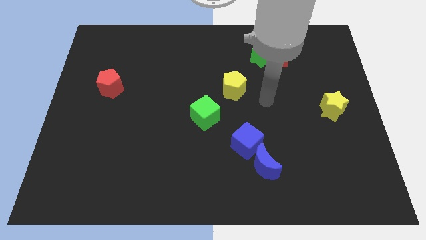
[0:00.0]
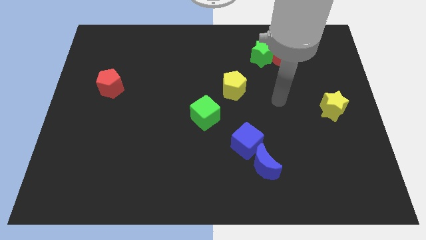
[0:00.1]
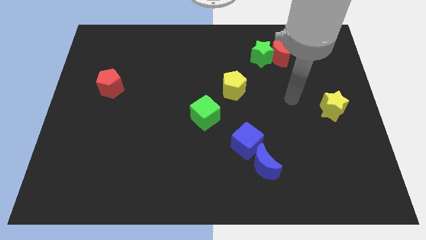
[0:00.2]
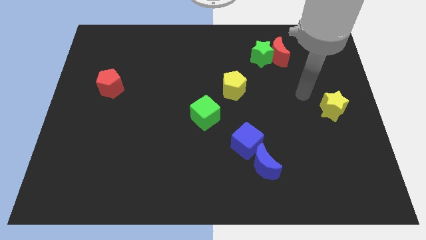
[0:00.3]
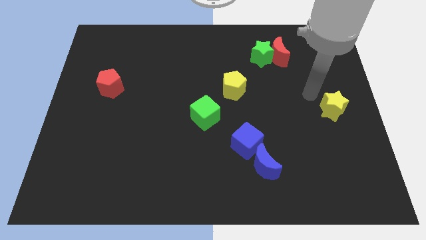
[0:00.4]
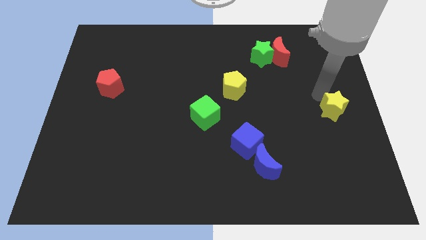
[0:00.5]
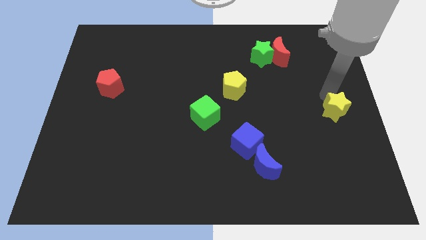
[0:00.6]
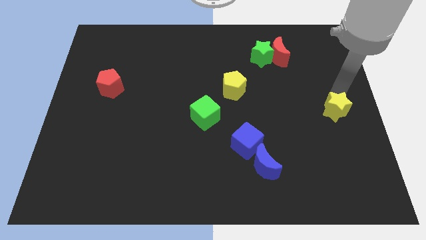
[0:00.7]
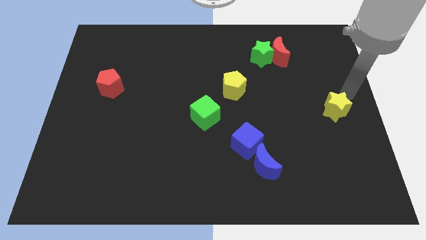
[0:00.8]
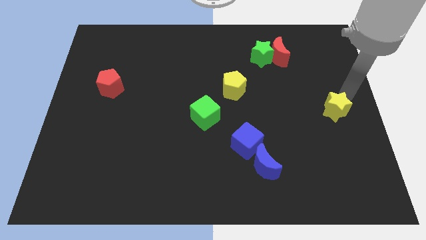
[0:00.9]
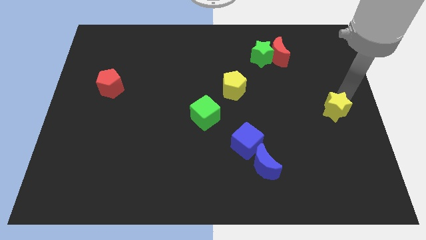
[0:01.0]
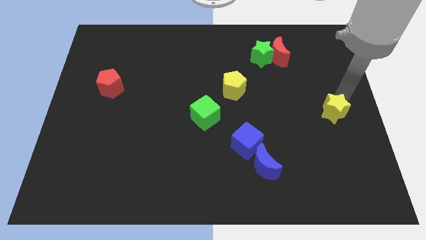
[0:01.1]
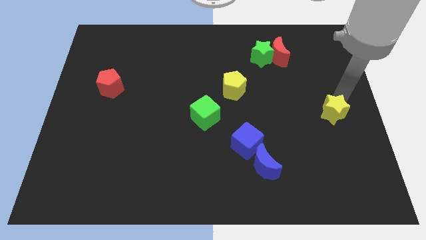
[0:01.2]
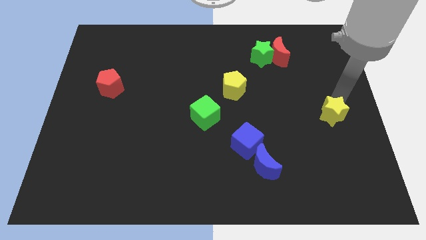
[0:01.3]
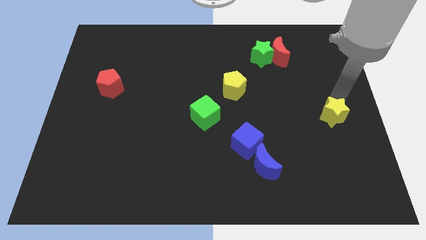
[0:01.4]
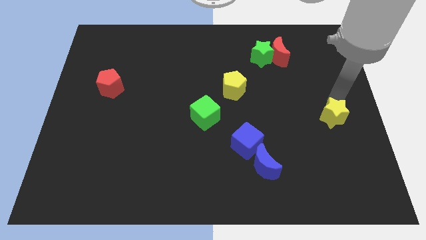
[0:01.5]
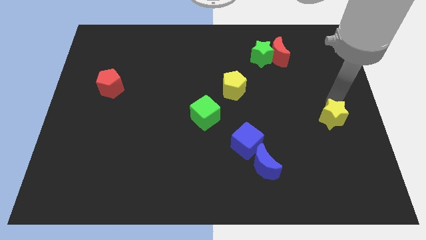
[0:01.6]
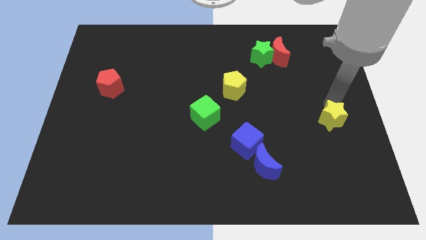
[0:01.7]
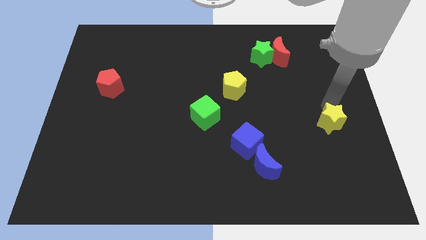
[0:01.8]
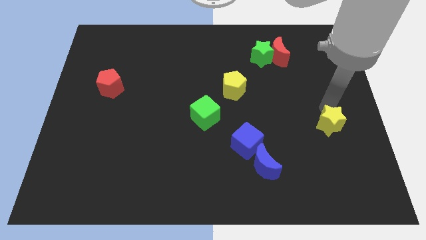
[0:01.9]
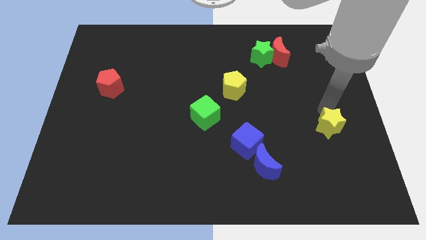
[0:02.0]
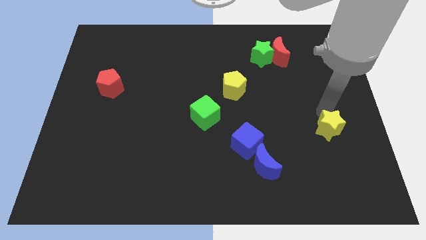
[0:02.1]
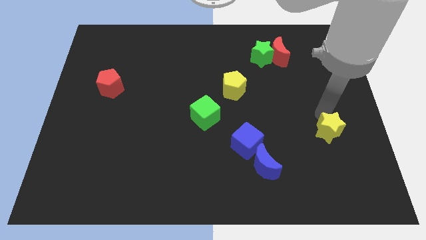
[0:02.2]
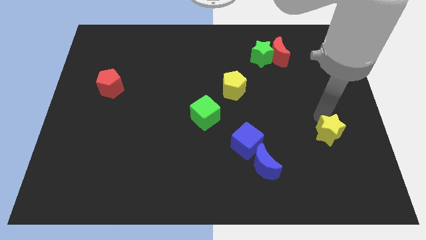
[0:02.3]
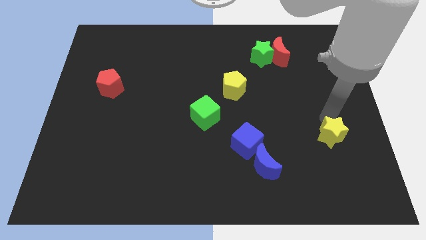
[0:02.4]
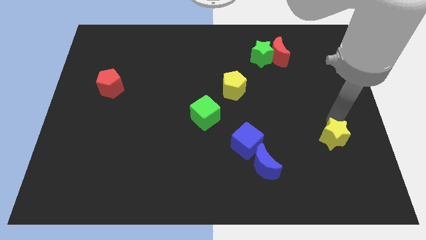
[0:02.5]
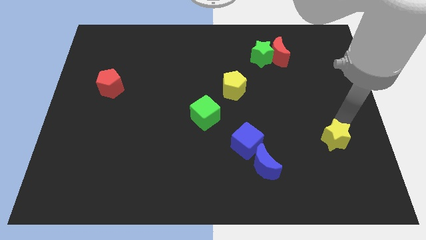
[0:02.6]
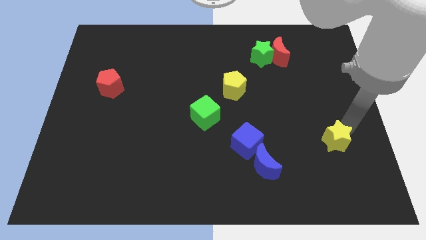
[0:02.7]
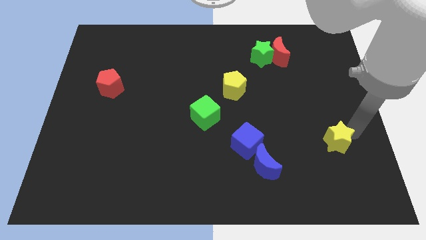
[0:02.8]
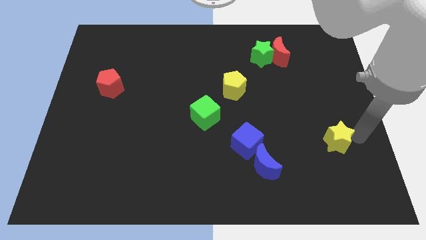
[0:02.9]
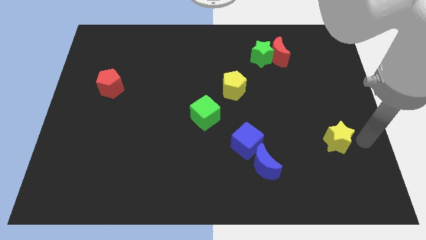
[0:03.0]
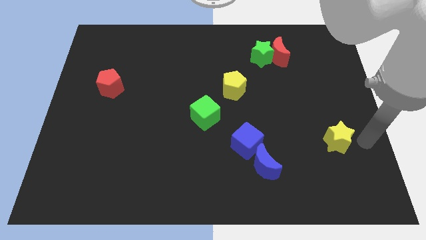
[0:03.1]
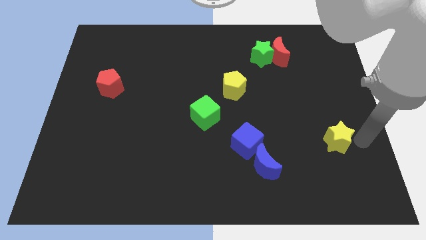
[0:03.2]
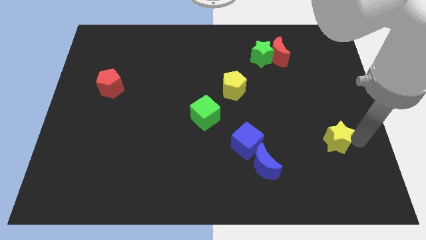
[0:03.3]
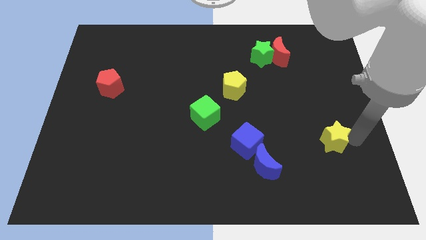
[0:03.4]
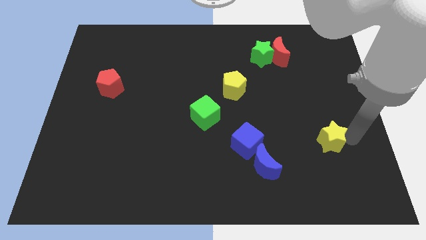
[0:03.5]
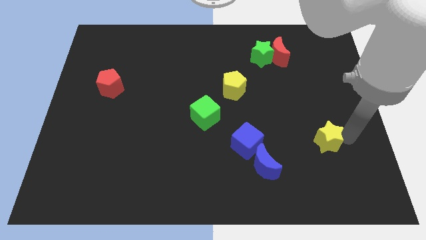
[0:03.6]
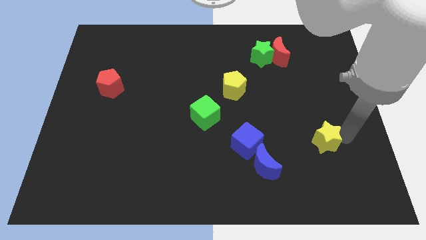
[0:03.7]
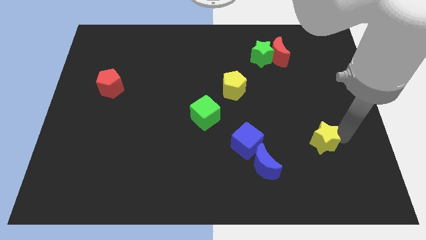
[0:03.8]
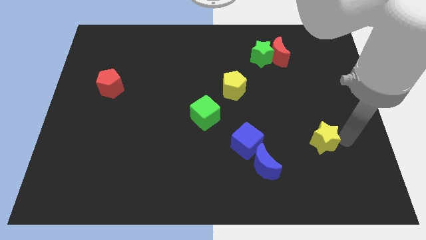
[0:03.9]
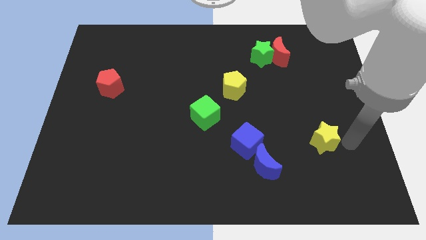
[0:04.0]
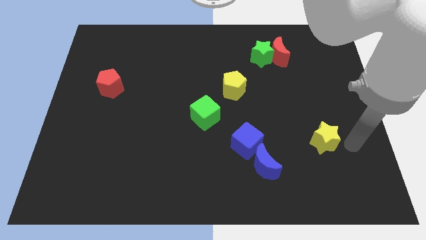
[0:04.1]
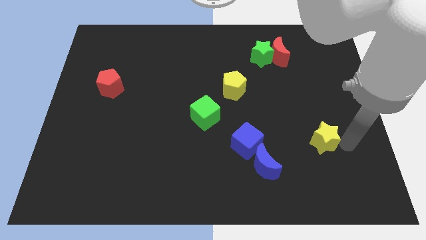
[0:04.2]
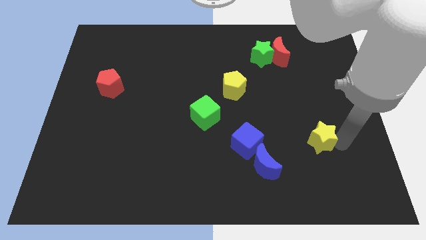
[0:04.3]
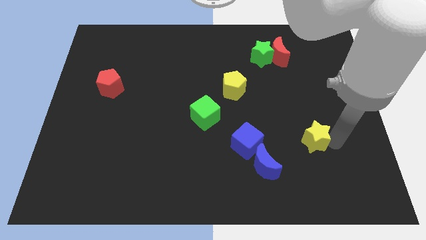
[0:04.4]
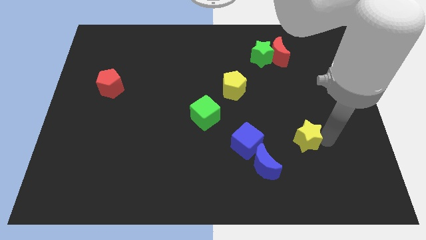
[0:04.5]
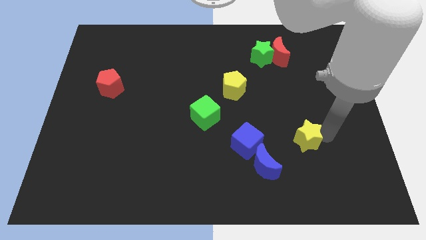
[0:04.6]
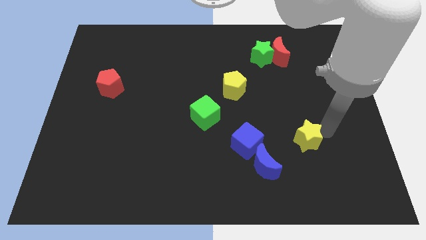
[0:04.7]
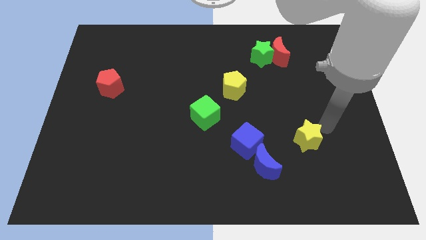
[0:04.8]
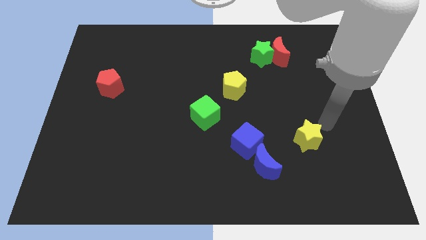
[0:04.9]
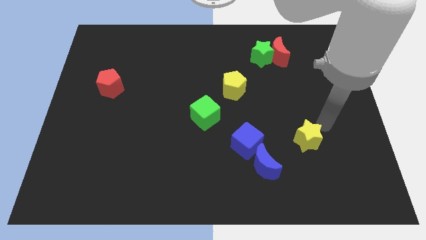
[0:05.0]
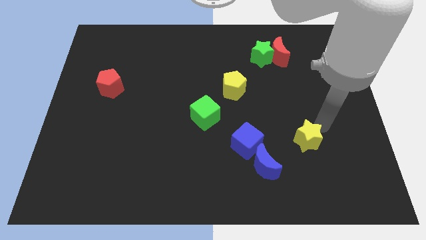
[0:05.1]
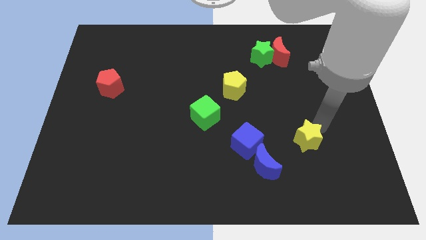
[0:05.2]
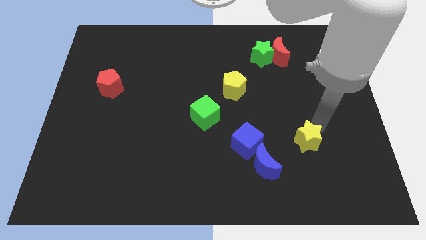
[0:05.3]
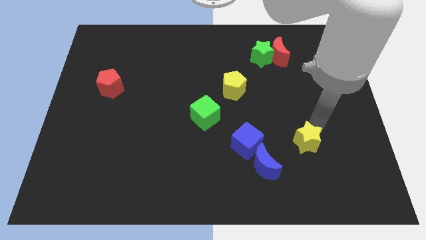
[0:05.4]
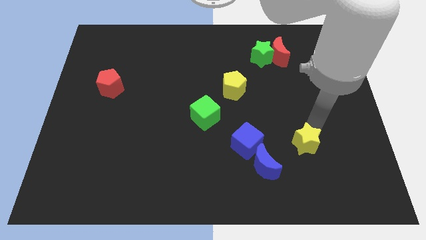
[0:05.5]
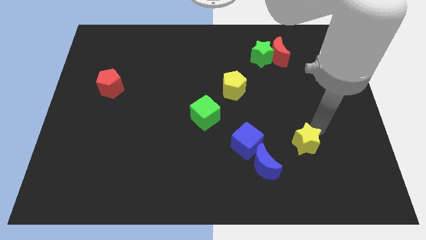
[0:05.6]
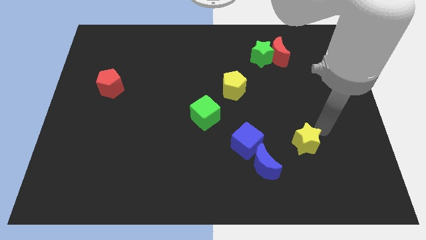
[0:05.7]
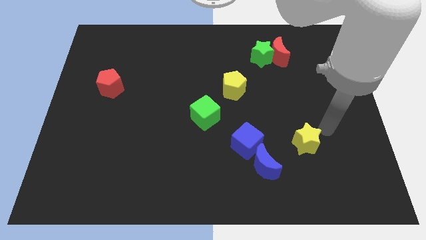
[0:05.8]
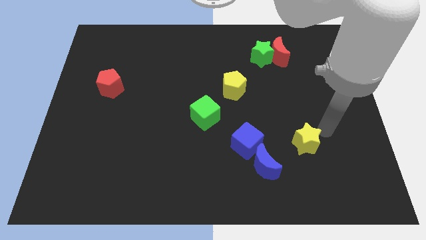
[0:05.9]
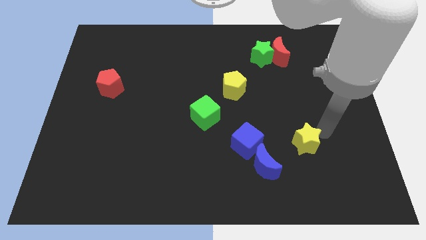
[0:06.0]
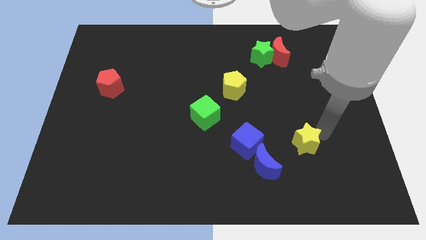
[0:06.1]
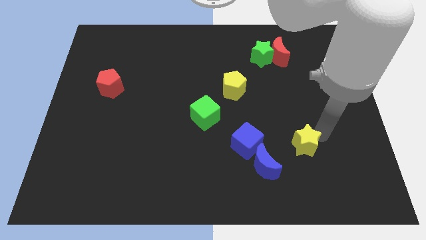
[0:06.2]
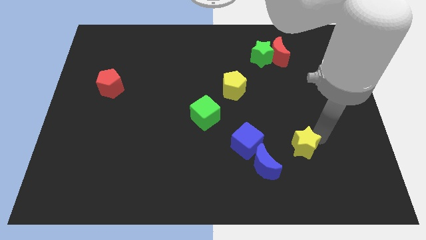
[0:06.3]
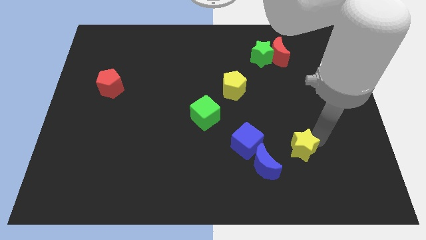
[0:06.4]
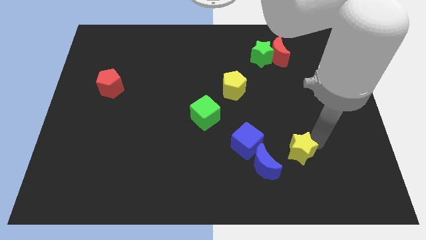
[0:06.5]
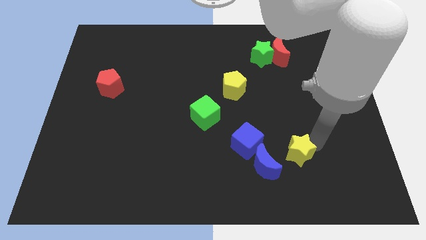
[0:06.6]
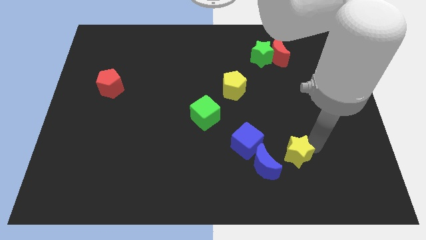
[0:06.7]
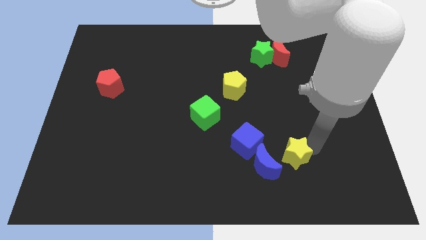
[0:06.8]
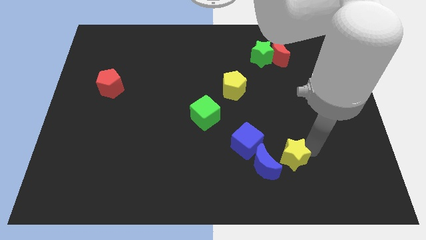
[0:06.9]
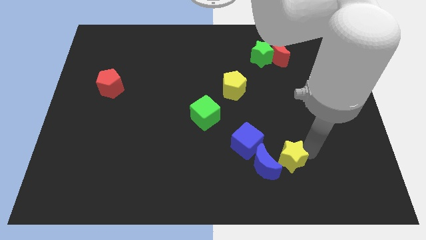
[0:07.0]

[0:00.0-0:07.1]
move the yellow star to the blue moon
